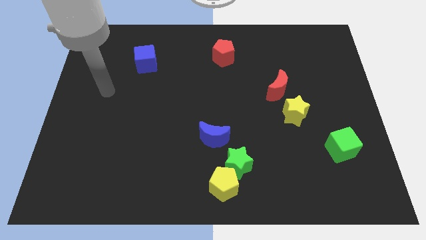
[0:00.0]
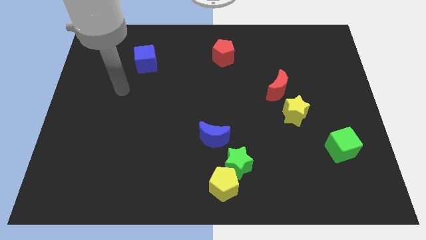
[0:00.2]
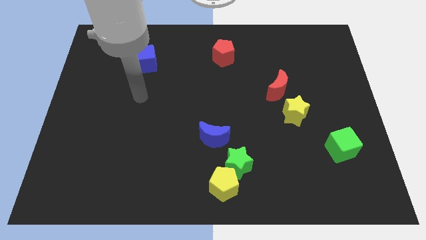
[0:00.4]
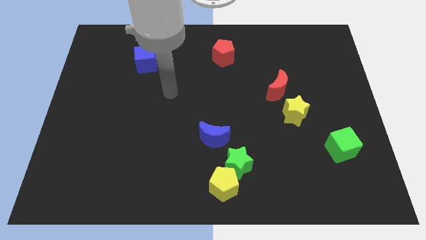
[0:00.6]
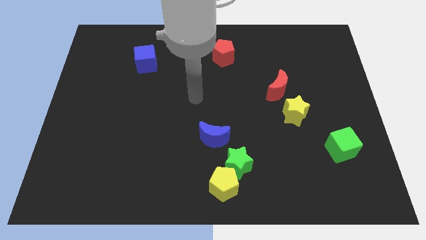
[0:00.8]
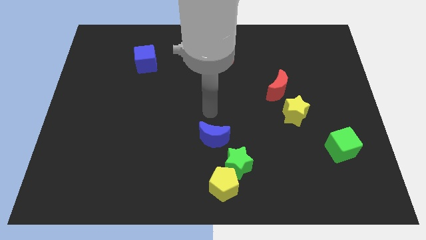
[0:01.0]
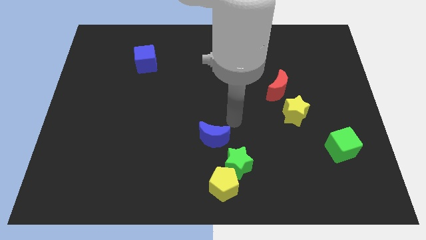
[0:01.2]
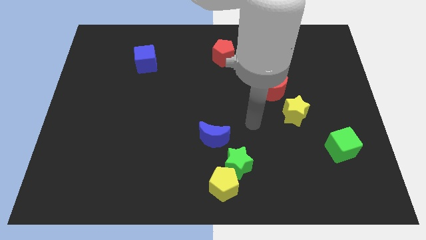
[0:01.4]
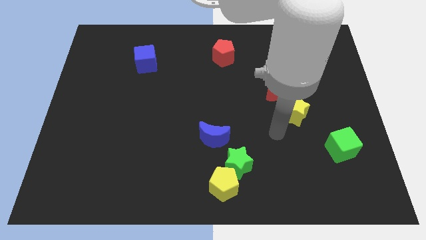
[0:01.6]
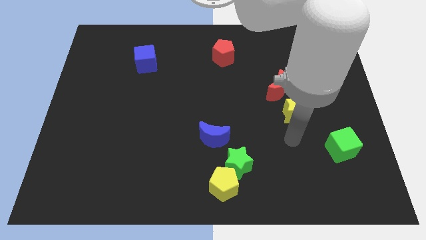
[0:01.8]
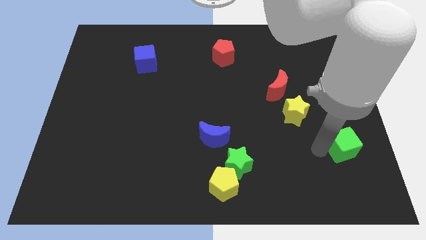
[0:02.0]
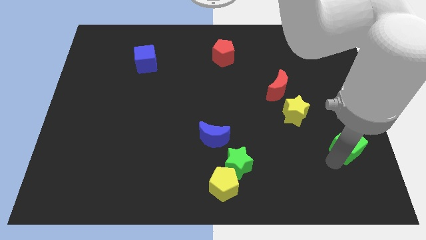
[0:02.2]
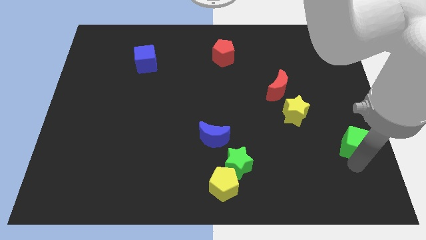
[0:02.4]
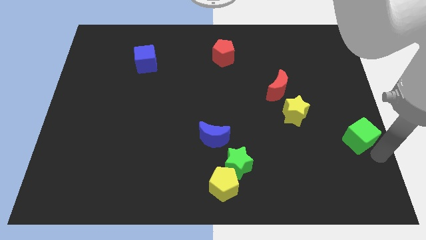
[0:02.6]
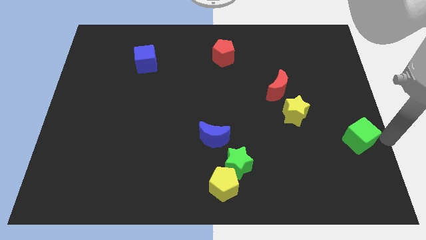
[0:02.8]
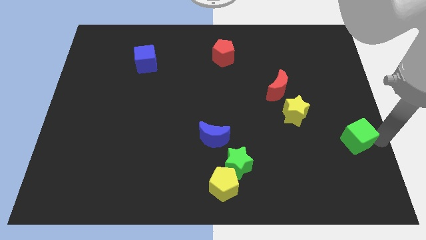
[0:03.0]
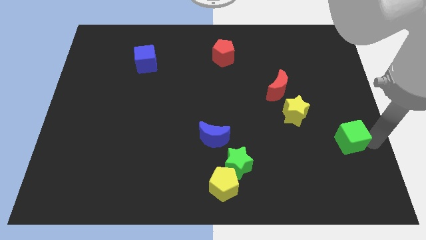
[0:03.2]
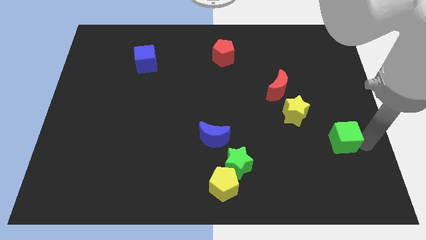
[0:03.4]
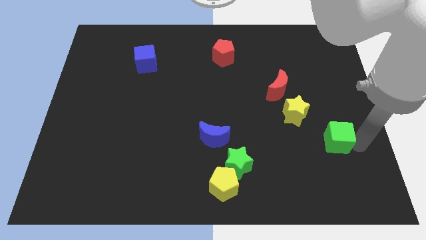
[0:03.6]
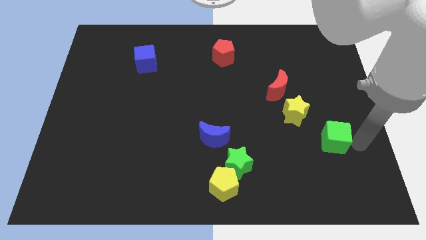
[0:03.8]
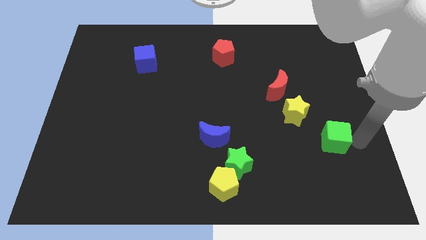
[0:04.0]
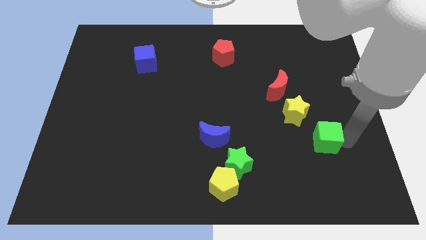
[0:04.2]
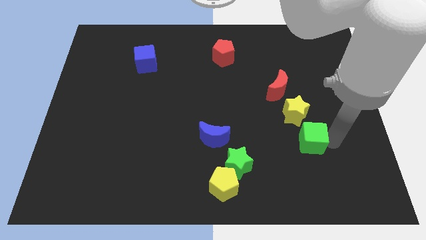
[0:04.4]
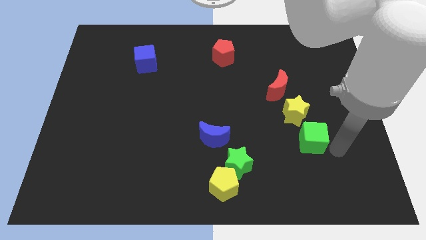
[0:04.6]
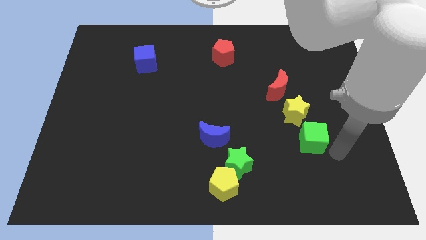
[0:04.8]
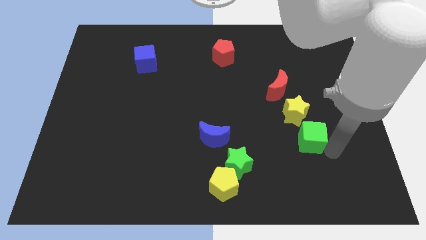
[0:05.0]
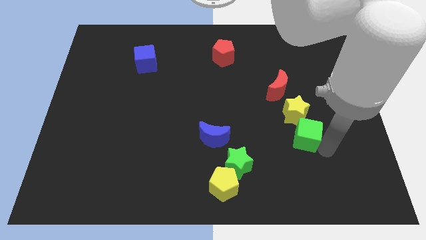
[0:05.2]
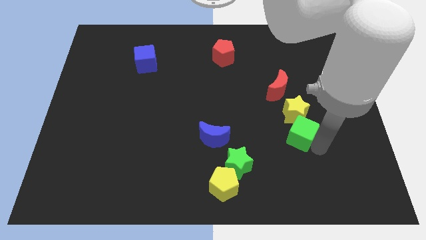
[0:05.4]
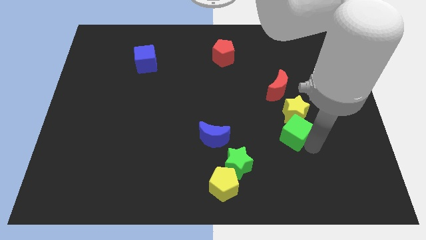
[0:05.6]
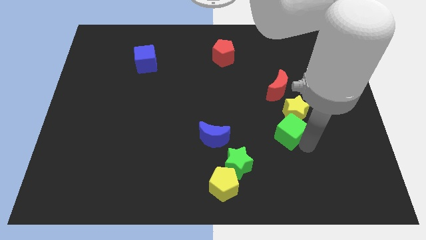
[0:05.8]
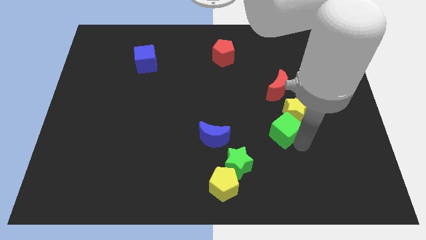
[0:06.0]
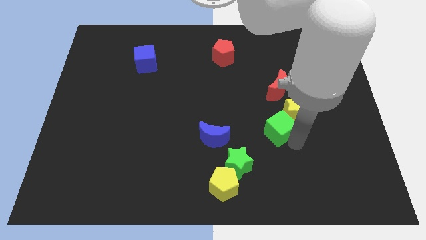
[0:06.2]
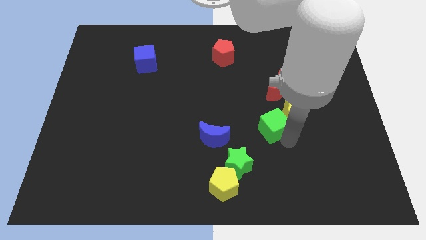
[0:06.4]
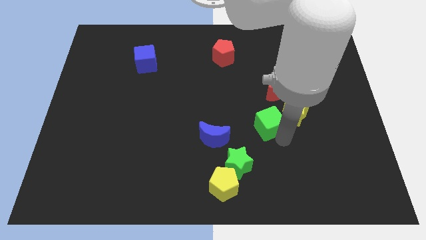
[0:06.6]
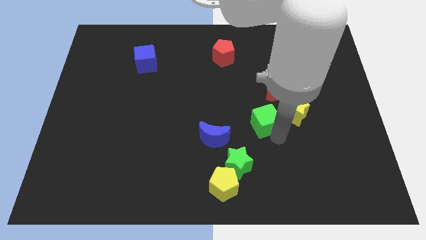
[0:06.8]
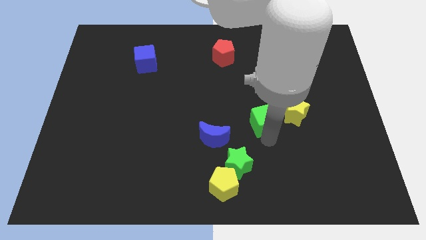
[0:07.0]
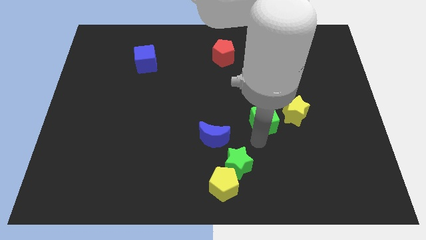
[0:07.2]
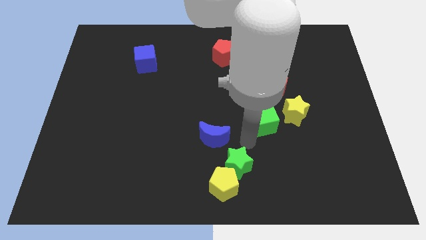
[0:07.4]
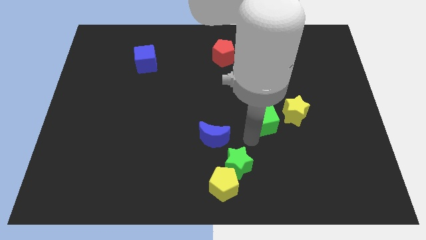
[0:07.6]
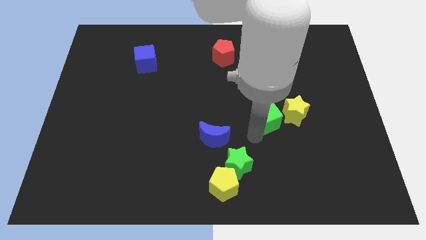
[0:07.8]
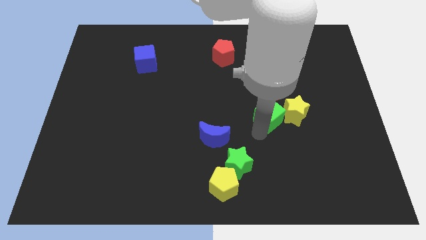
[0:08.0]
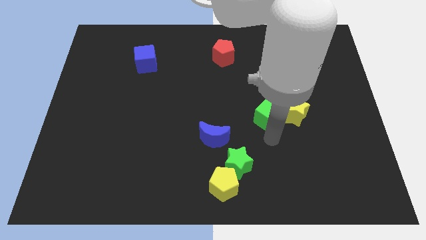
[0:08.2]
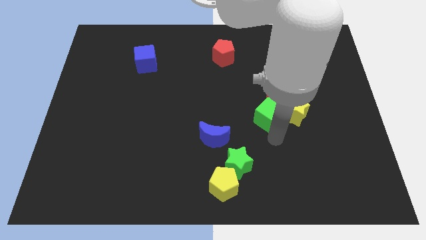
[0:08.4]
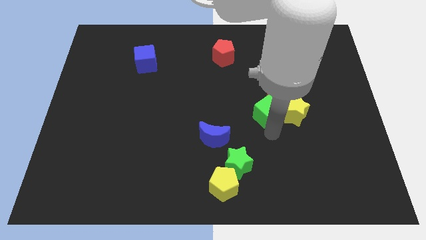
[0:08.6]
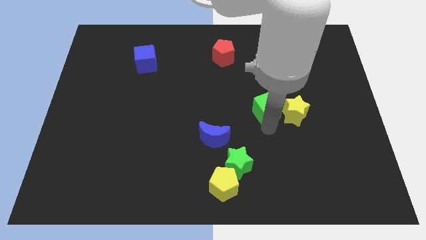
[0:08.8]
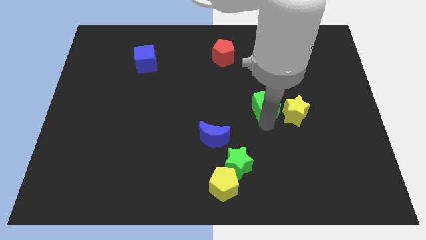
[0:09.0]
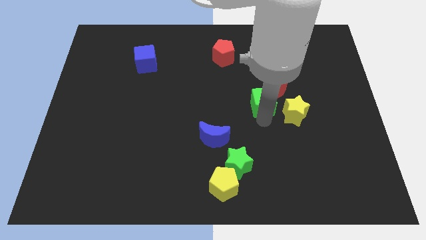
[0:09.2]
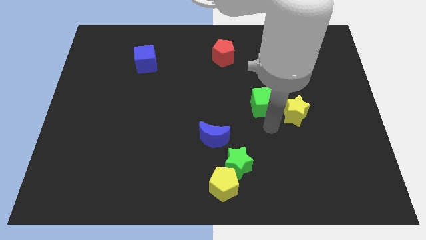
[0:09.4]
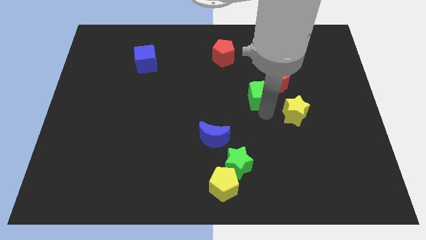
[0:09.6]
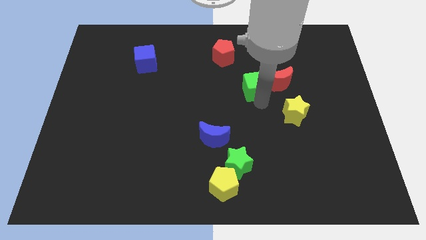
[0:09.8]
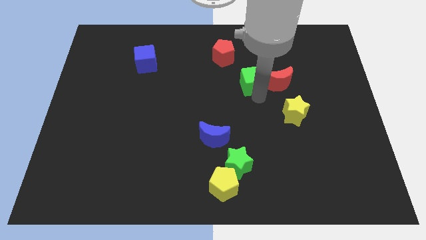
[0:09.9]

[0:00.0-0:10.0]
push the green cube to the bottom right of the red pentagon

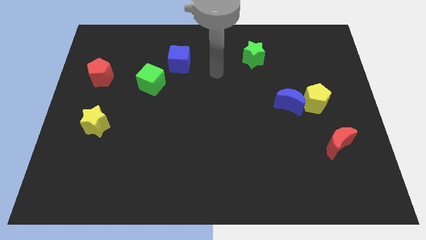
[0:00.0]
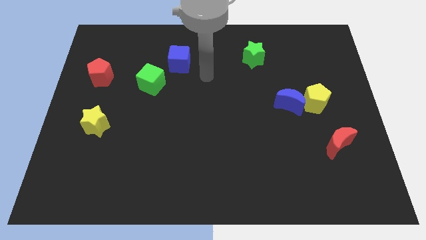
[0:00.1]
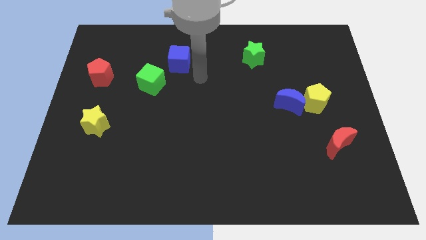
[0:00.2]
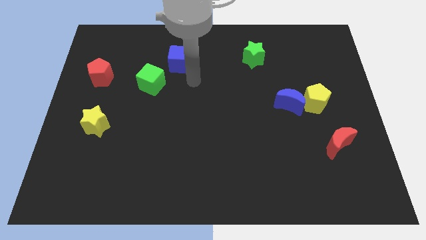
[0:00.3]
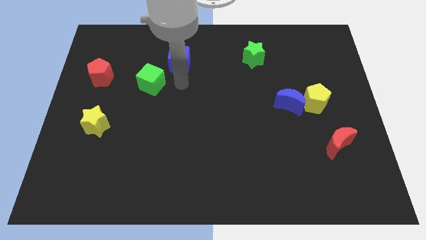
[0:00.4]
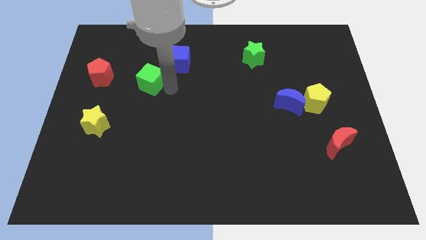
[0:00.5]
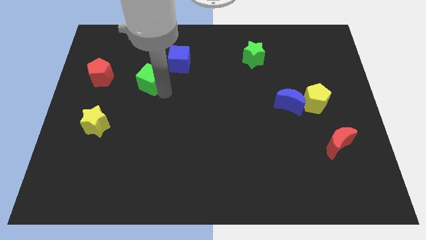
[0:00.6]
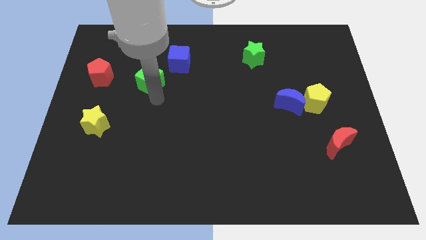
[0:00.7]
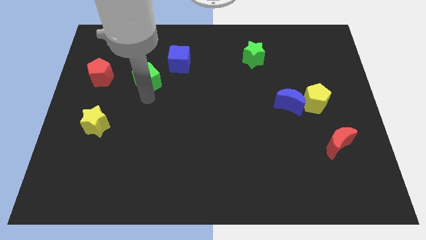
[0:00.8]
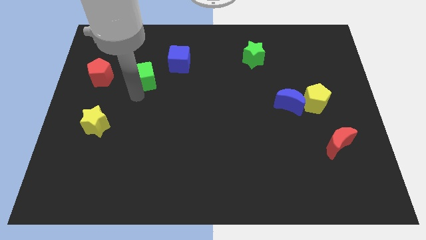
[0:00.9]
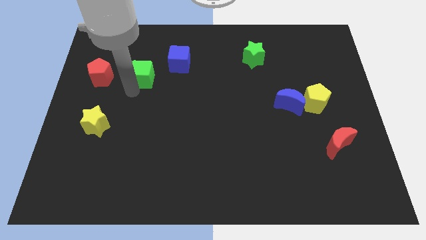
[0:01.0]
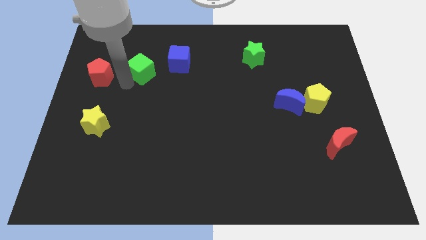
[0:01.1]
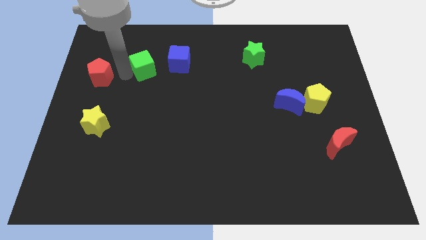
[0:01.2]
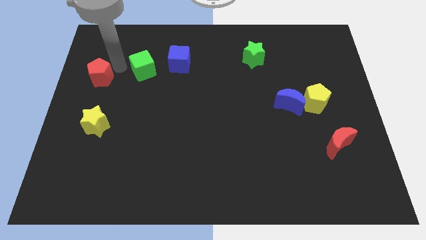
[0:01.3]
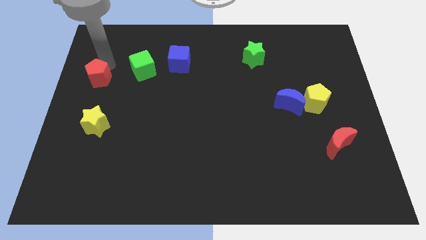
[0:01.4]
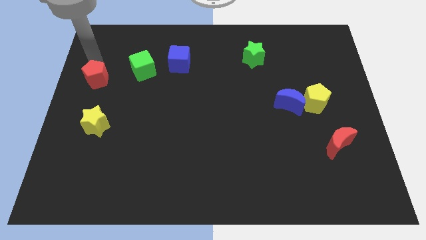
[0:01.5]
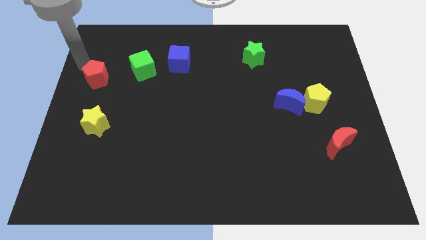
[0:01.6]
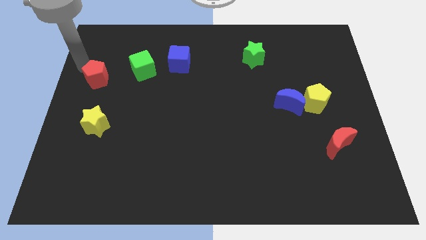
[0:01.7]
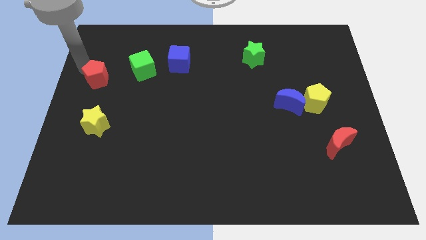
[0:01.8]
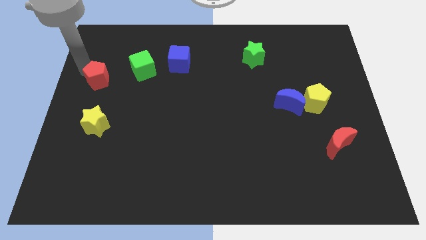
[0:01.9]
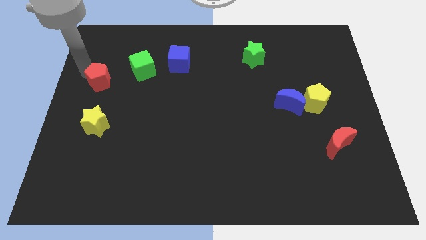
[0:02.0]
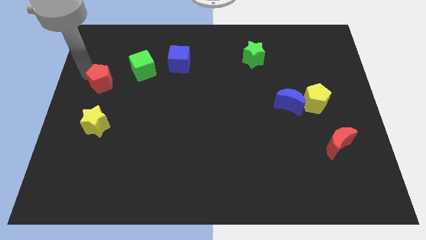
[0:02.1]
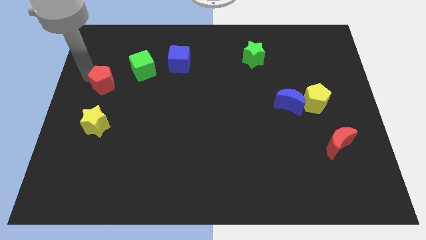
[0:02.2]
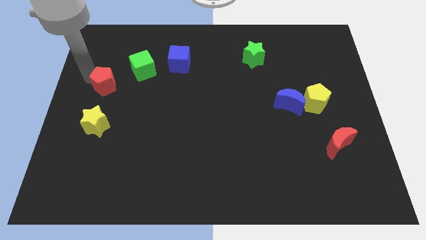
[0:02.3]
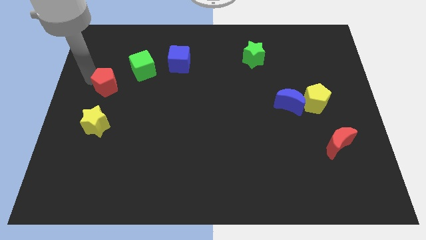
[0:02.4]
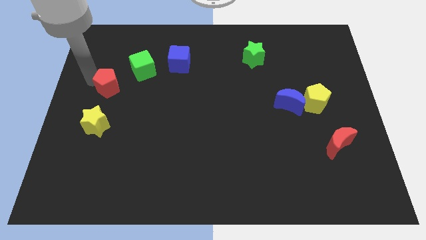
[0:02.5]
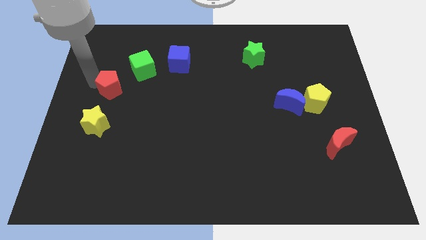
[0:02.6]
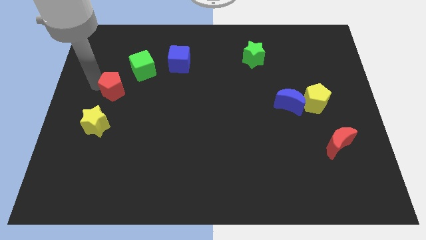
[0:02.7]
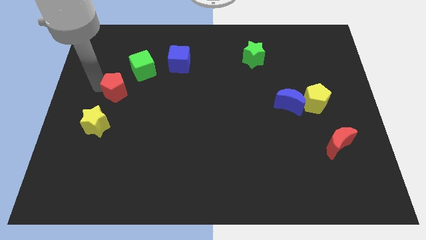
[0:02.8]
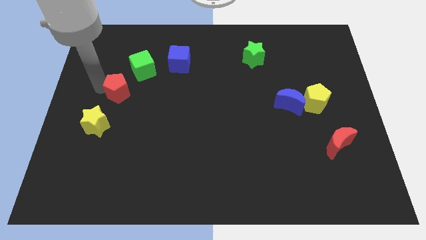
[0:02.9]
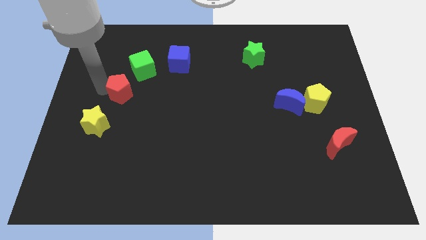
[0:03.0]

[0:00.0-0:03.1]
push the red pentagon to the bottom of the green cube
